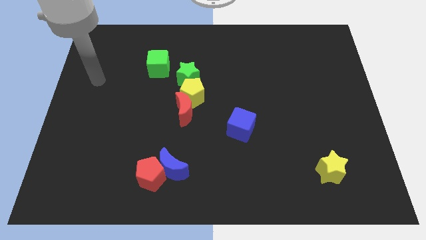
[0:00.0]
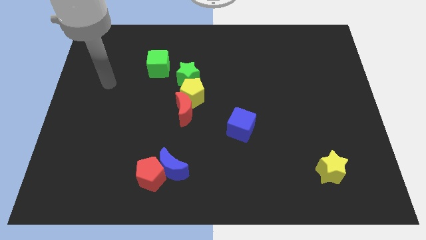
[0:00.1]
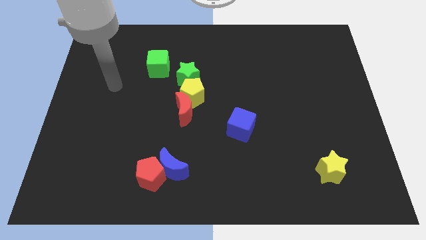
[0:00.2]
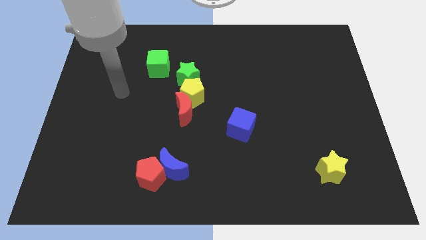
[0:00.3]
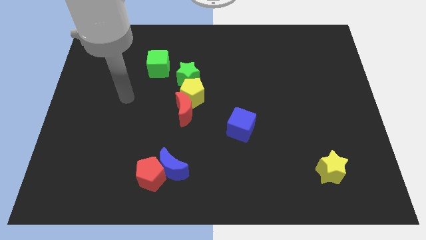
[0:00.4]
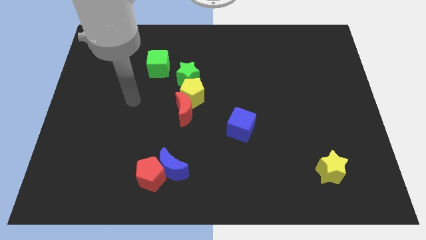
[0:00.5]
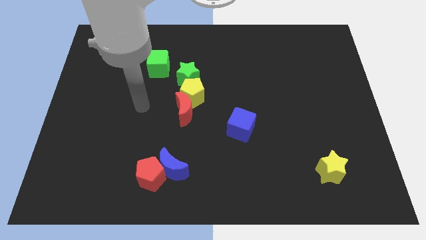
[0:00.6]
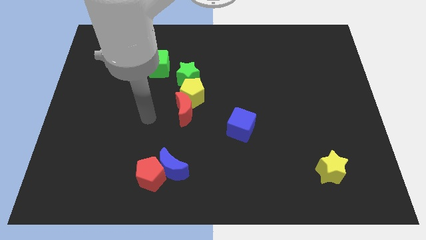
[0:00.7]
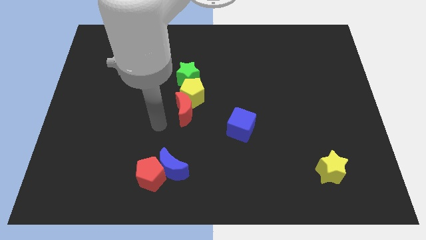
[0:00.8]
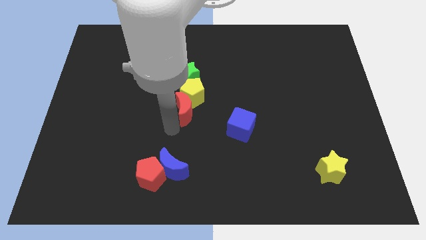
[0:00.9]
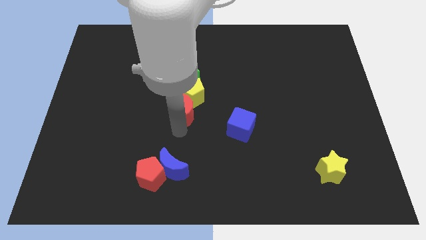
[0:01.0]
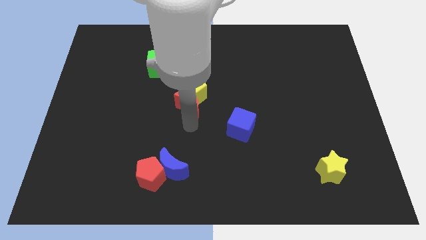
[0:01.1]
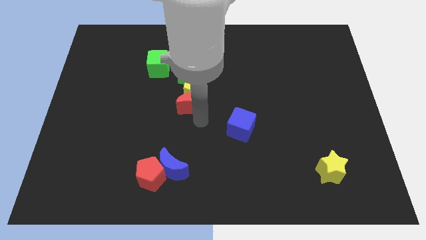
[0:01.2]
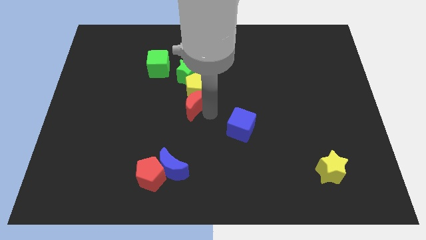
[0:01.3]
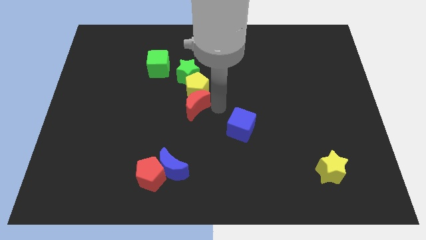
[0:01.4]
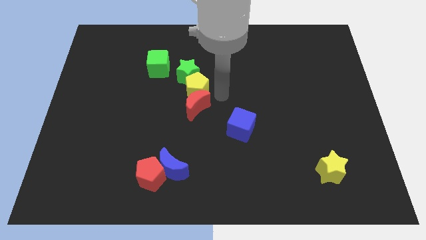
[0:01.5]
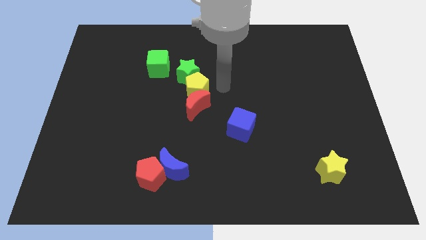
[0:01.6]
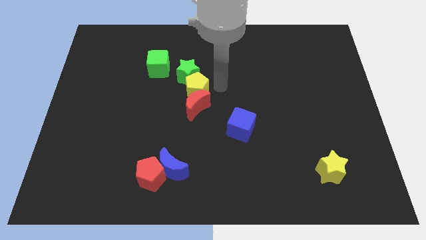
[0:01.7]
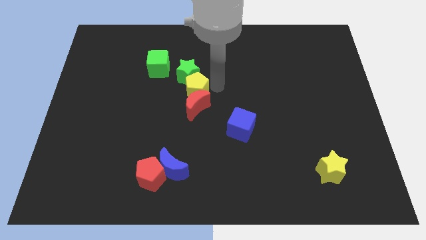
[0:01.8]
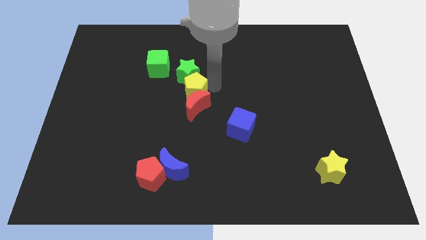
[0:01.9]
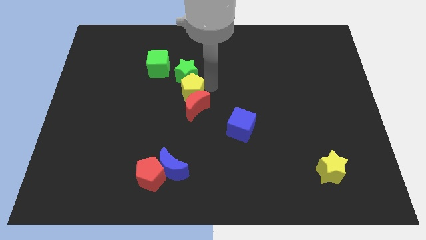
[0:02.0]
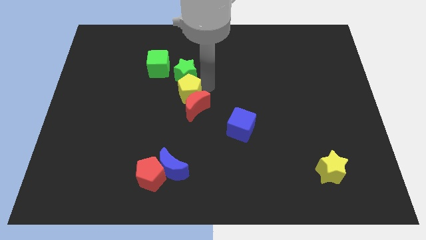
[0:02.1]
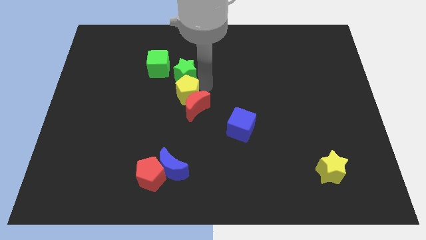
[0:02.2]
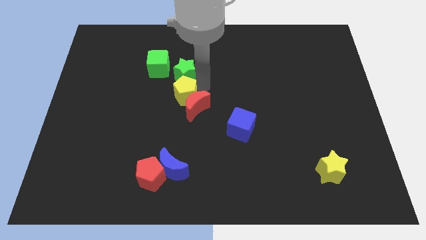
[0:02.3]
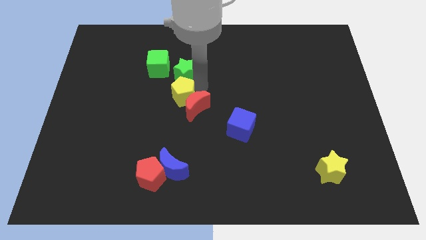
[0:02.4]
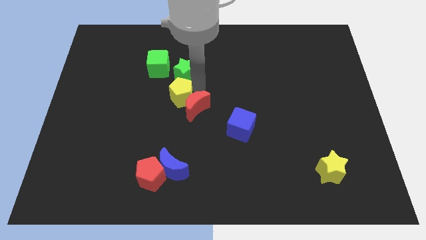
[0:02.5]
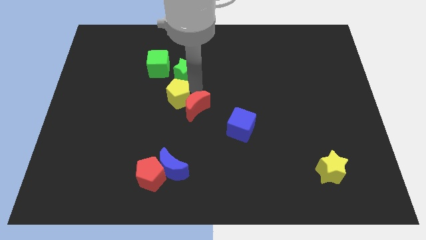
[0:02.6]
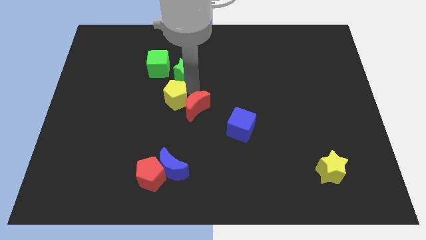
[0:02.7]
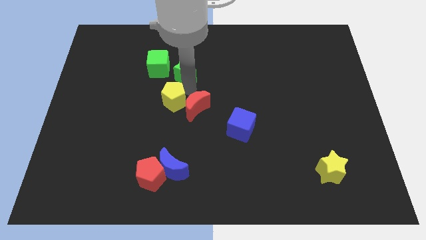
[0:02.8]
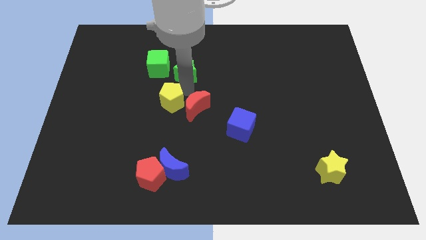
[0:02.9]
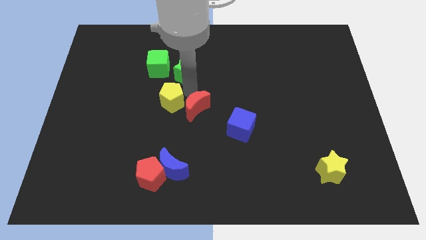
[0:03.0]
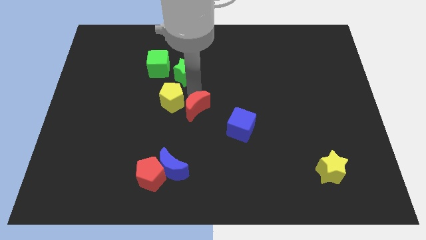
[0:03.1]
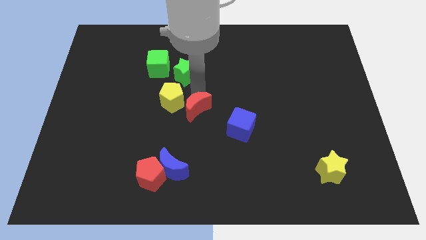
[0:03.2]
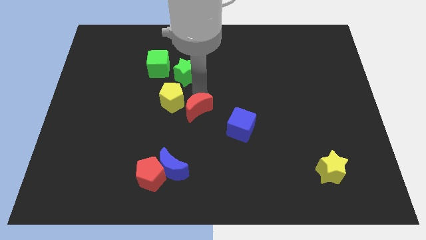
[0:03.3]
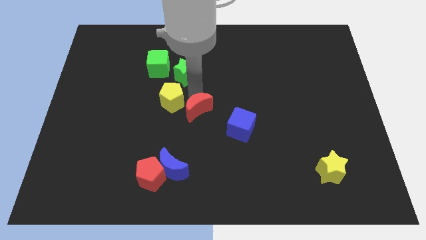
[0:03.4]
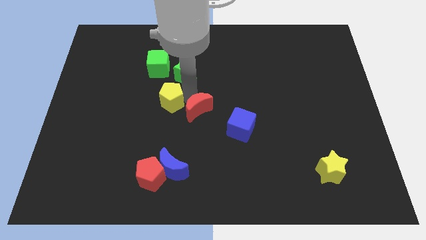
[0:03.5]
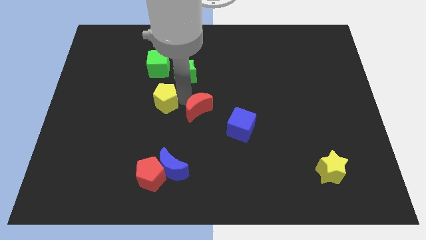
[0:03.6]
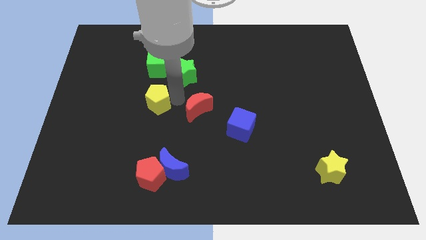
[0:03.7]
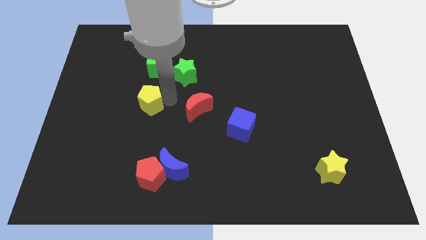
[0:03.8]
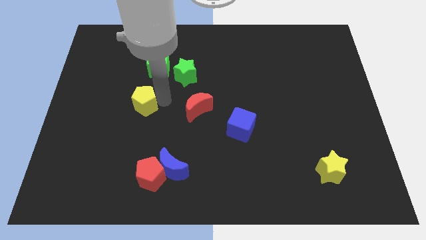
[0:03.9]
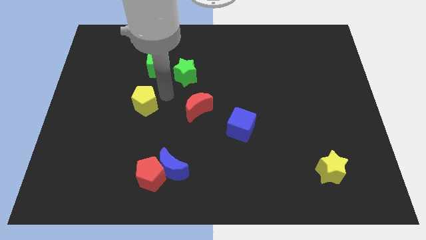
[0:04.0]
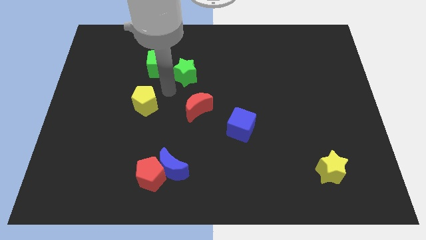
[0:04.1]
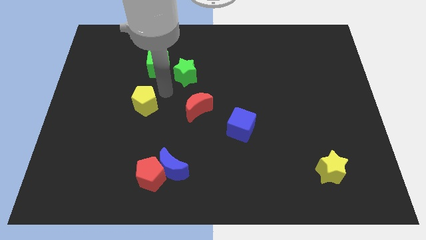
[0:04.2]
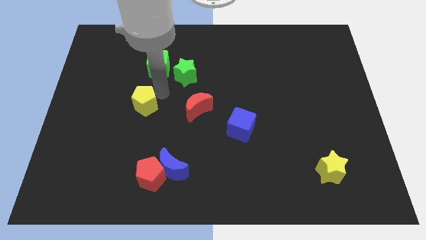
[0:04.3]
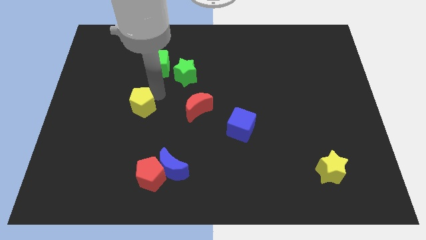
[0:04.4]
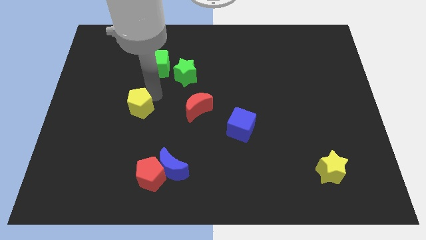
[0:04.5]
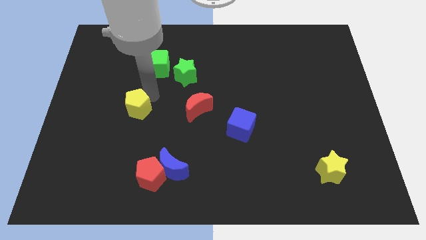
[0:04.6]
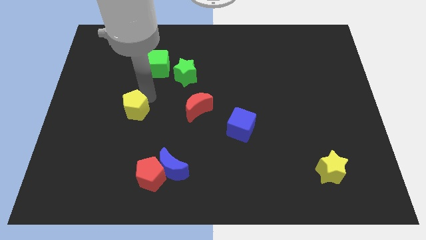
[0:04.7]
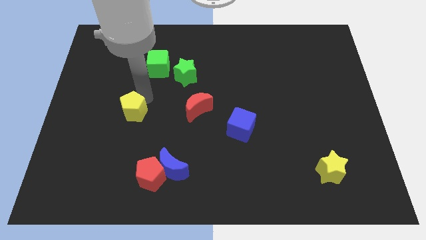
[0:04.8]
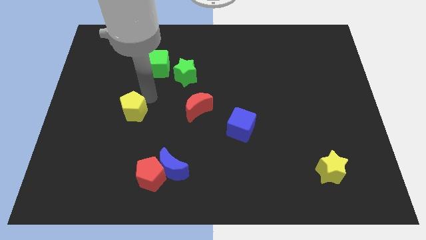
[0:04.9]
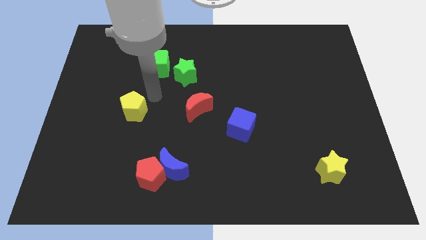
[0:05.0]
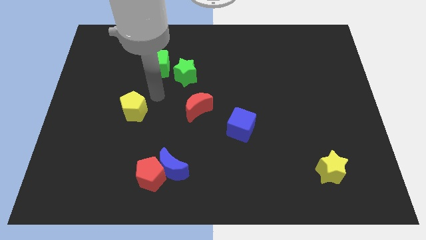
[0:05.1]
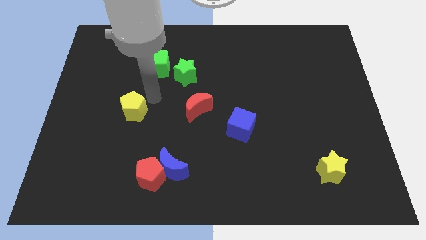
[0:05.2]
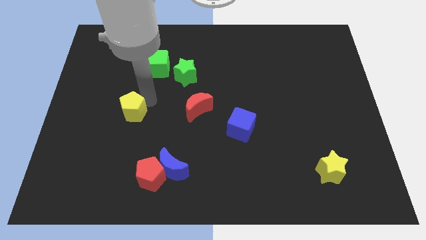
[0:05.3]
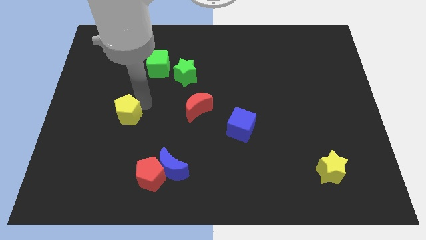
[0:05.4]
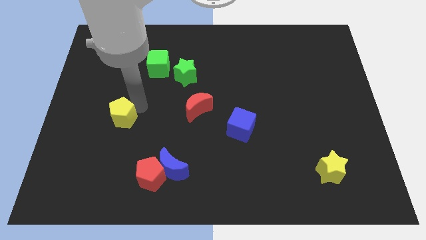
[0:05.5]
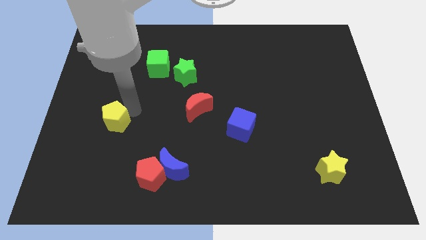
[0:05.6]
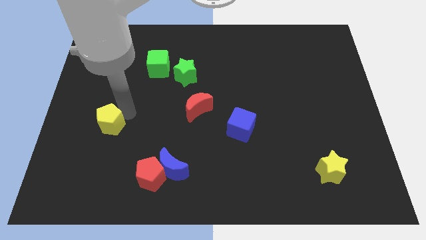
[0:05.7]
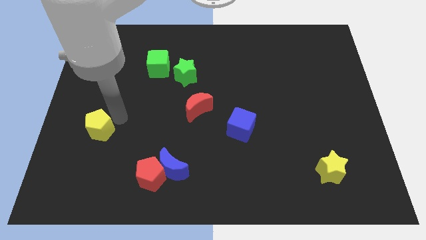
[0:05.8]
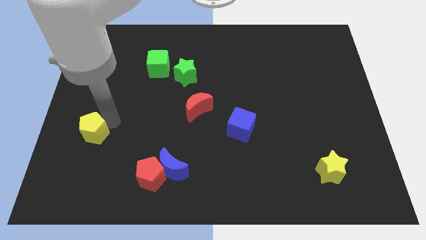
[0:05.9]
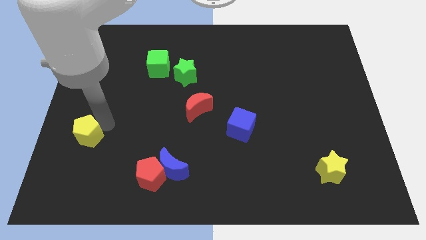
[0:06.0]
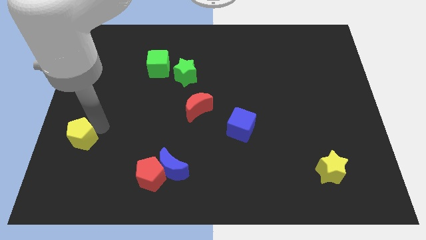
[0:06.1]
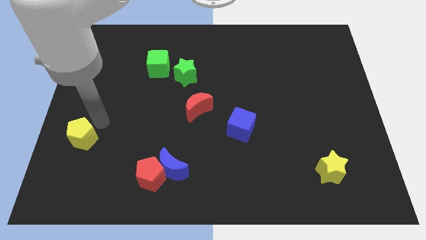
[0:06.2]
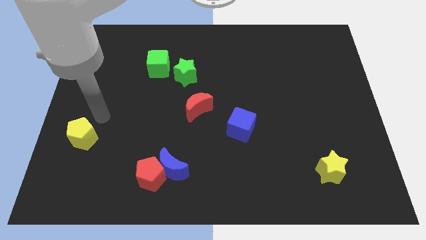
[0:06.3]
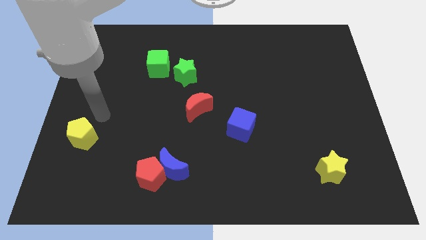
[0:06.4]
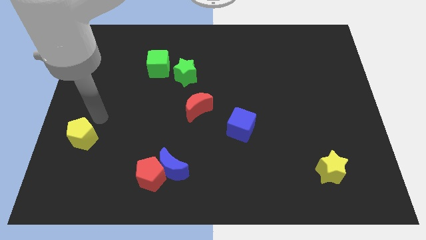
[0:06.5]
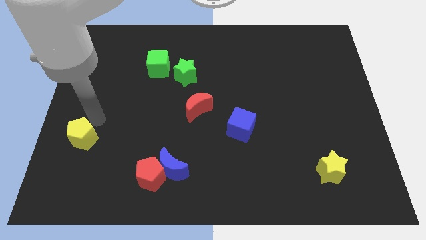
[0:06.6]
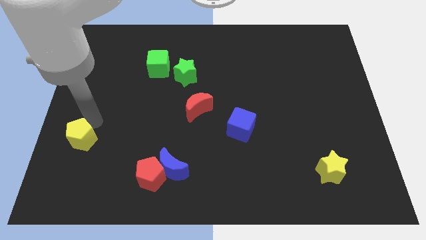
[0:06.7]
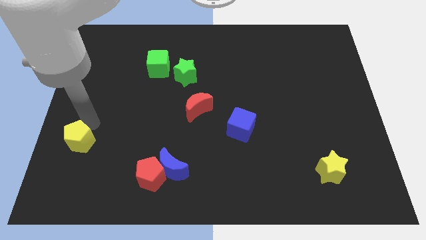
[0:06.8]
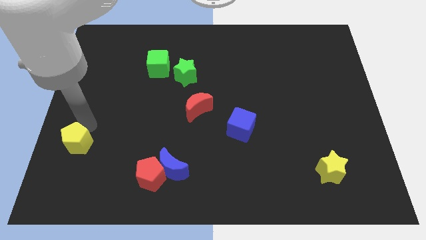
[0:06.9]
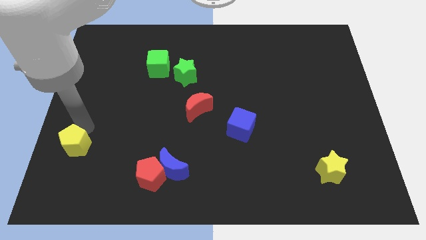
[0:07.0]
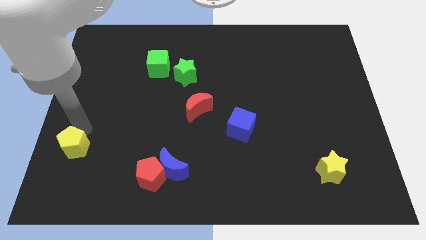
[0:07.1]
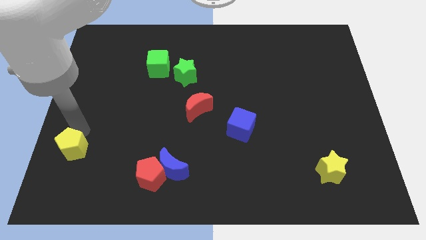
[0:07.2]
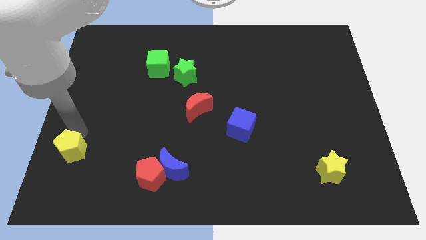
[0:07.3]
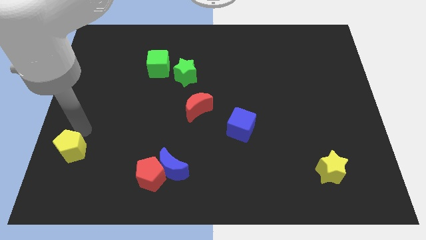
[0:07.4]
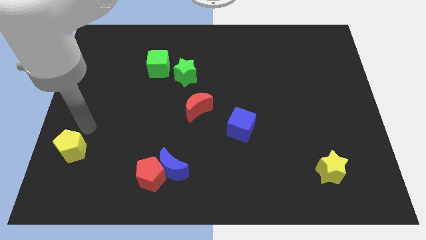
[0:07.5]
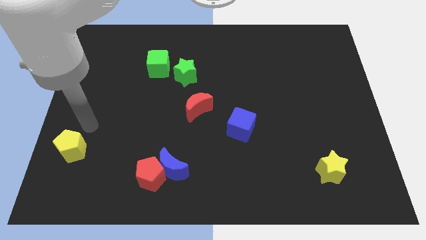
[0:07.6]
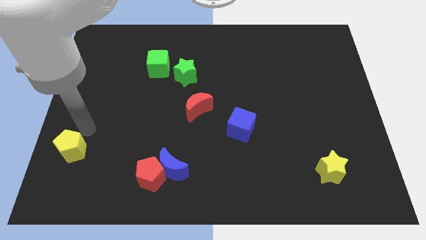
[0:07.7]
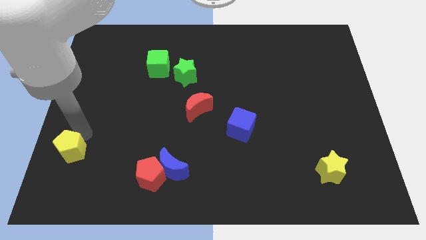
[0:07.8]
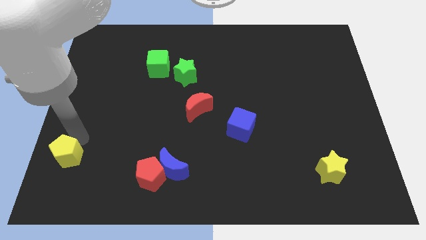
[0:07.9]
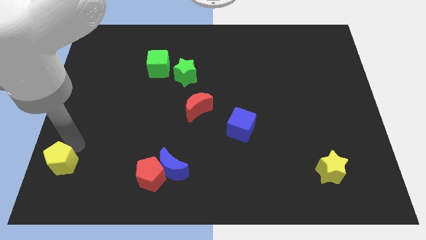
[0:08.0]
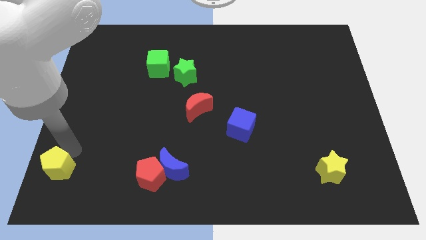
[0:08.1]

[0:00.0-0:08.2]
slide the yellow pentagon to the bottom left of the board
